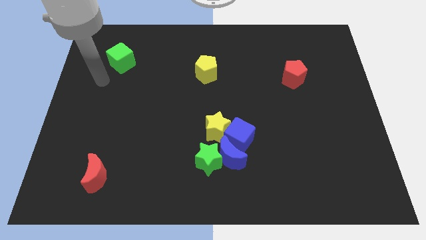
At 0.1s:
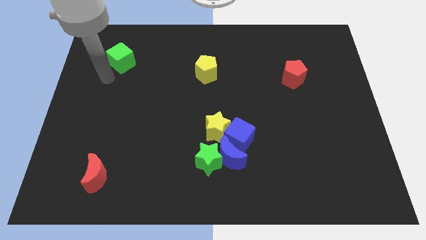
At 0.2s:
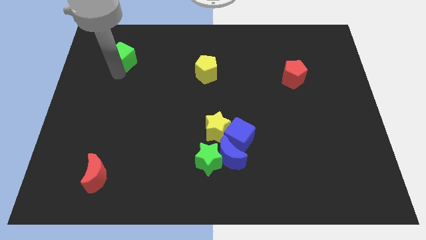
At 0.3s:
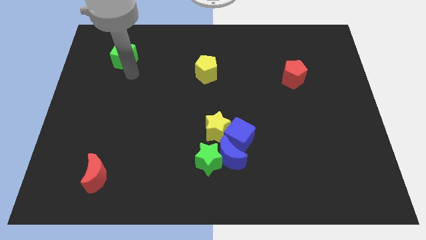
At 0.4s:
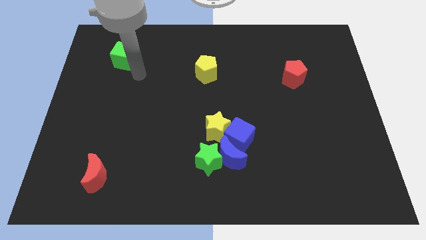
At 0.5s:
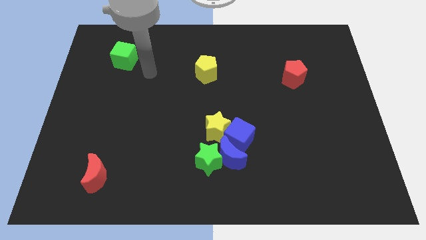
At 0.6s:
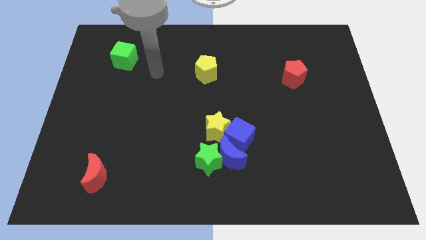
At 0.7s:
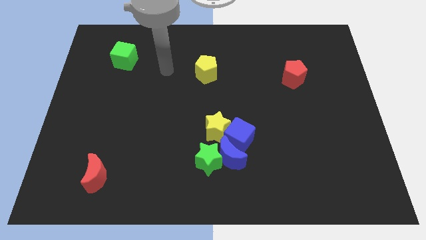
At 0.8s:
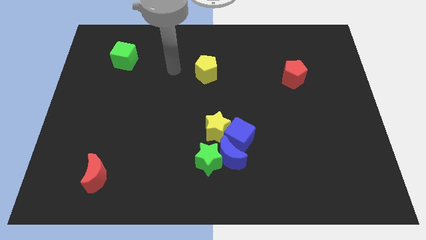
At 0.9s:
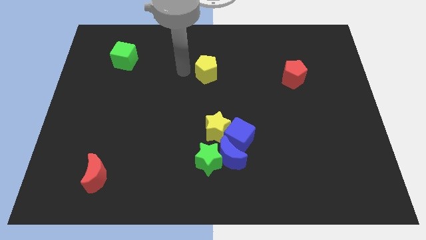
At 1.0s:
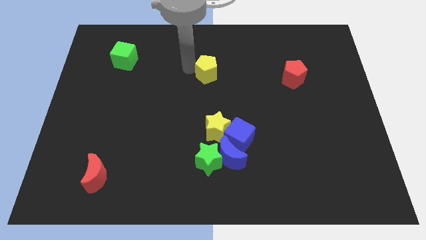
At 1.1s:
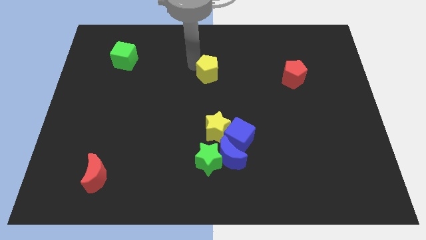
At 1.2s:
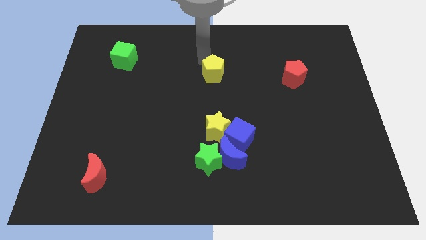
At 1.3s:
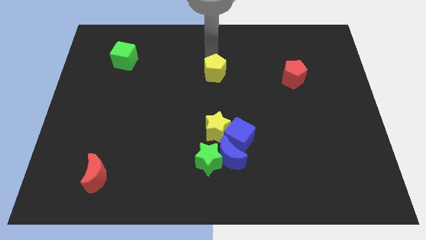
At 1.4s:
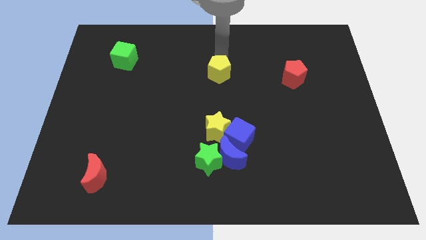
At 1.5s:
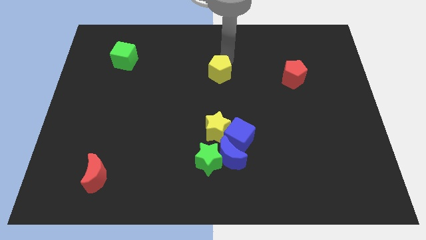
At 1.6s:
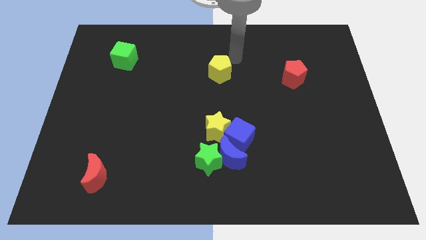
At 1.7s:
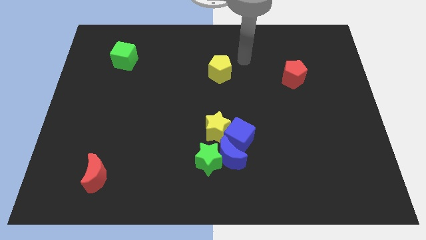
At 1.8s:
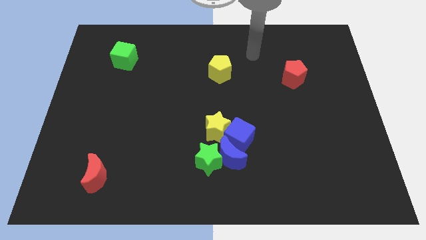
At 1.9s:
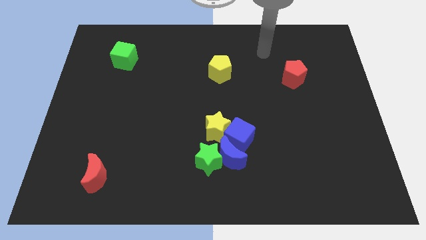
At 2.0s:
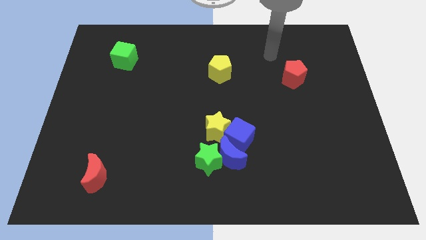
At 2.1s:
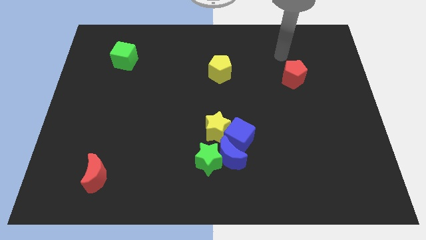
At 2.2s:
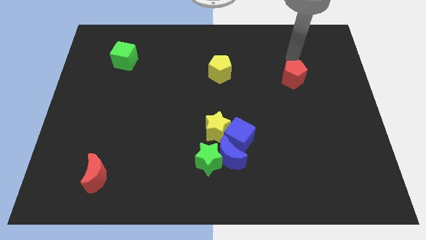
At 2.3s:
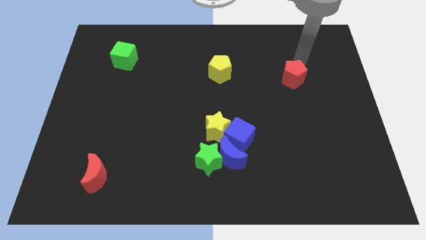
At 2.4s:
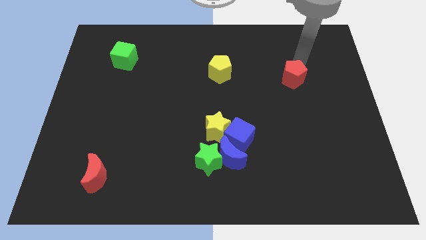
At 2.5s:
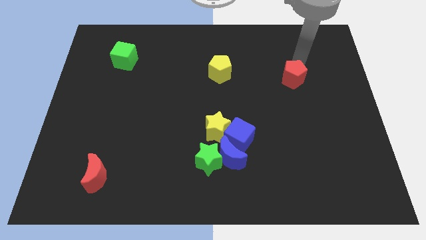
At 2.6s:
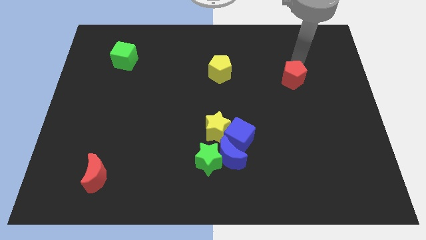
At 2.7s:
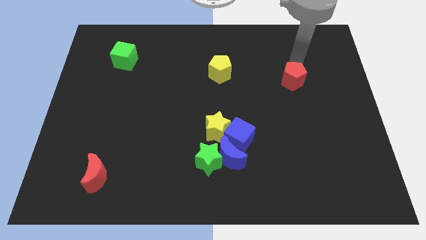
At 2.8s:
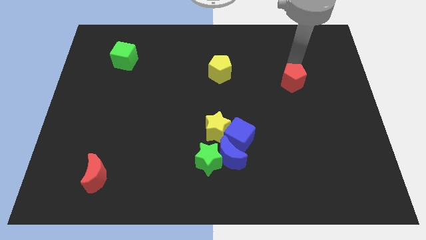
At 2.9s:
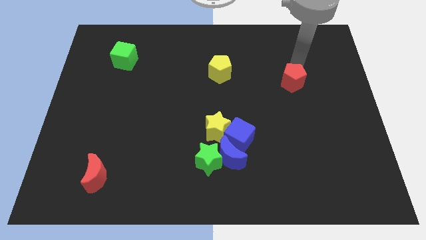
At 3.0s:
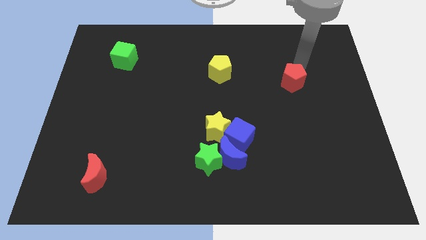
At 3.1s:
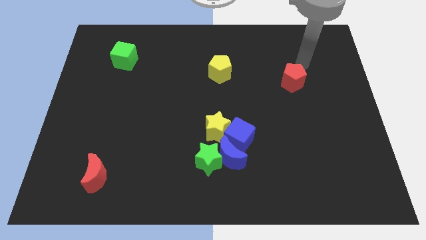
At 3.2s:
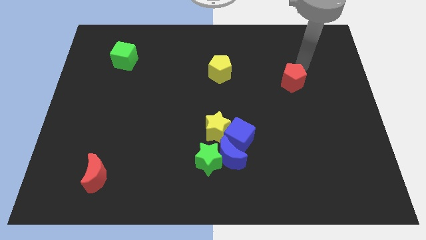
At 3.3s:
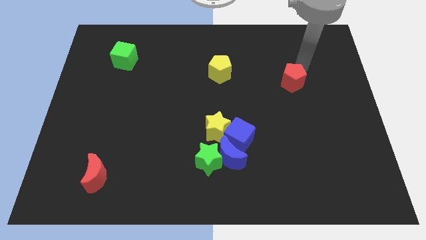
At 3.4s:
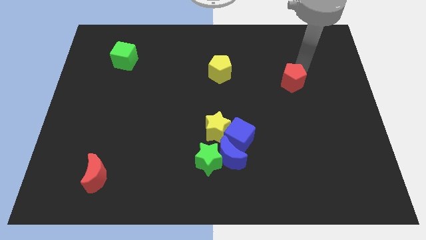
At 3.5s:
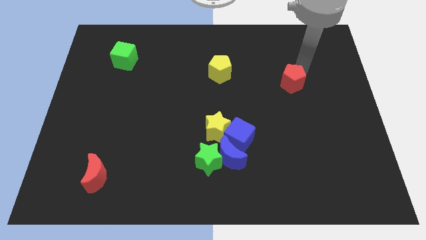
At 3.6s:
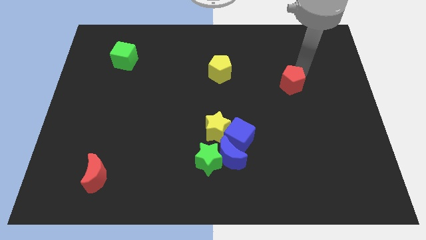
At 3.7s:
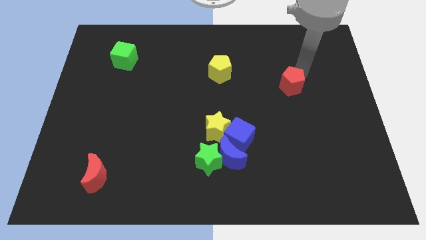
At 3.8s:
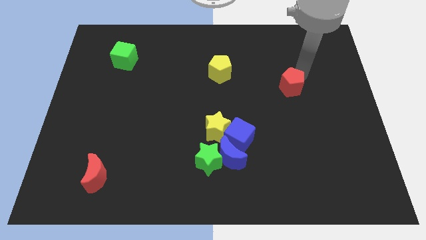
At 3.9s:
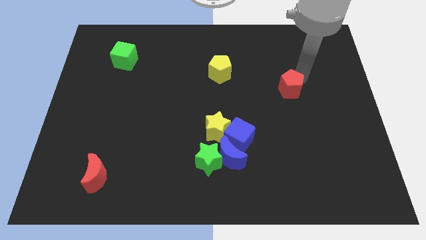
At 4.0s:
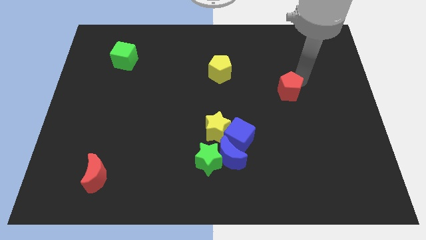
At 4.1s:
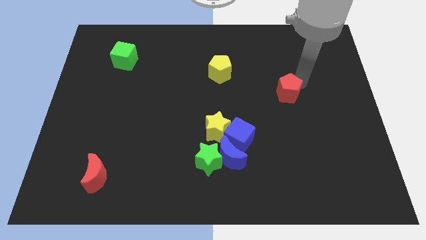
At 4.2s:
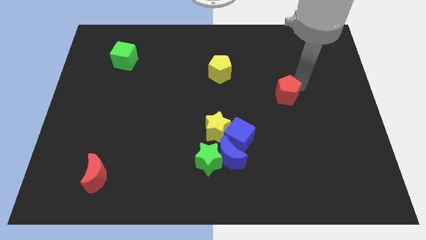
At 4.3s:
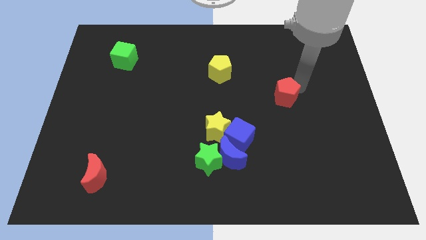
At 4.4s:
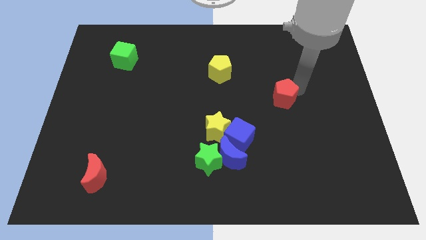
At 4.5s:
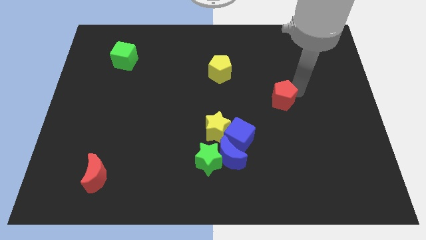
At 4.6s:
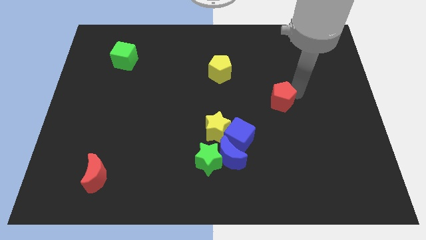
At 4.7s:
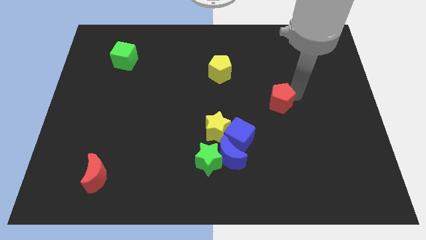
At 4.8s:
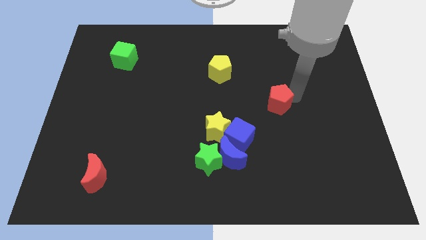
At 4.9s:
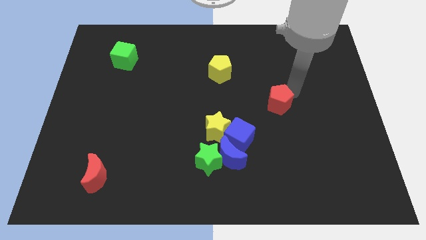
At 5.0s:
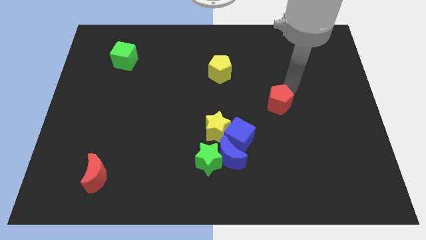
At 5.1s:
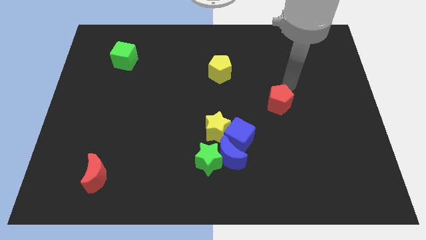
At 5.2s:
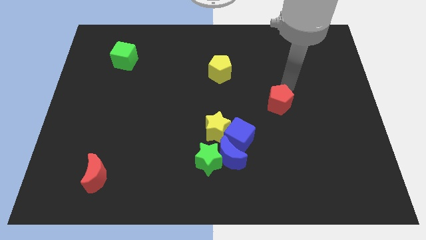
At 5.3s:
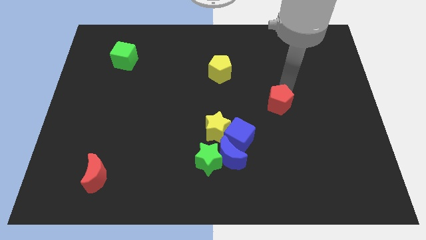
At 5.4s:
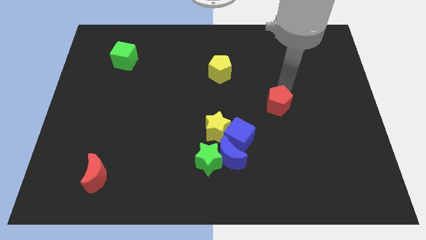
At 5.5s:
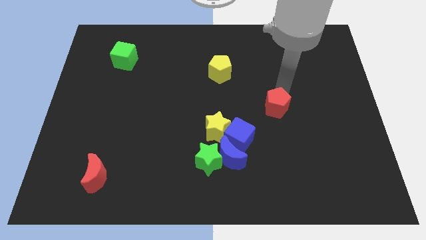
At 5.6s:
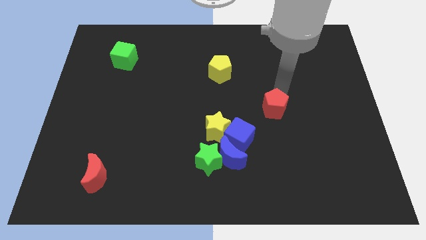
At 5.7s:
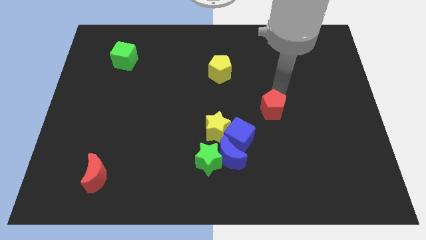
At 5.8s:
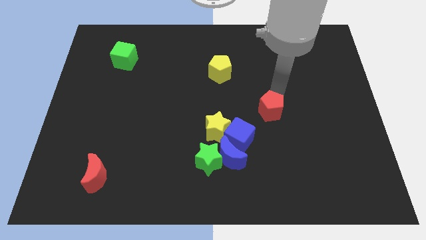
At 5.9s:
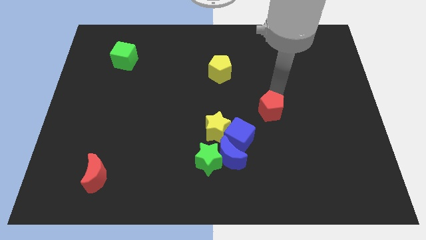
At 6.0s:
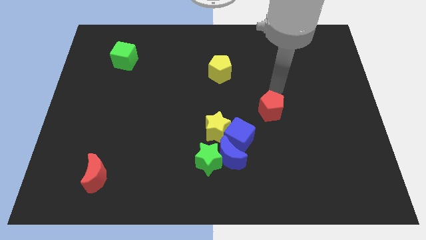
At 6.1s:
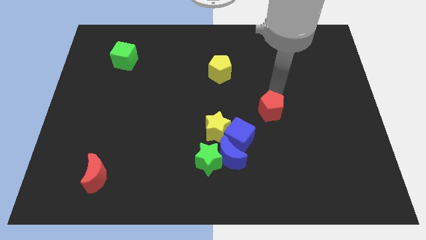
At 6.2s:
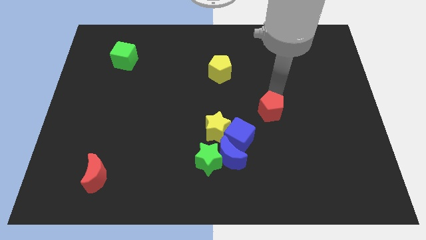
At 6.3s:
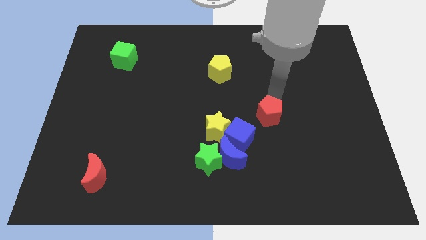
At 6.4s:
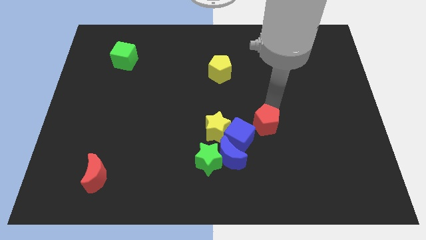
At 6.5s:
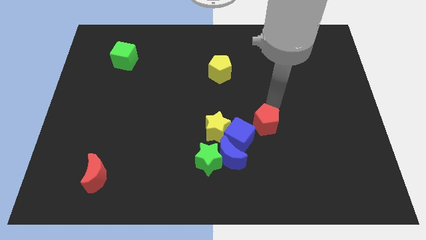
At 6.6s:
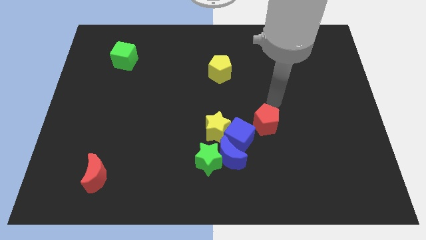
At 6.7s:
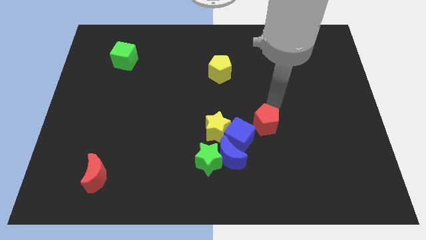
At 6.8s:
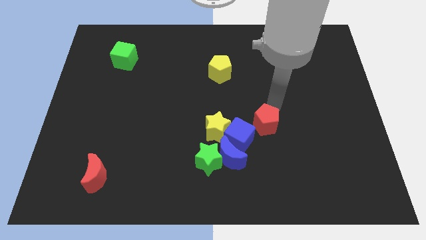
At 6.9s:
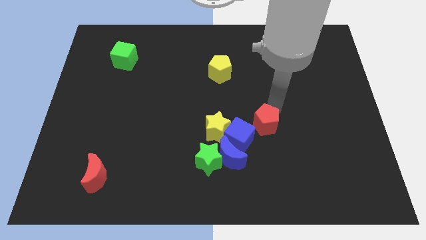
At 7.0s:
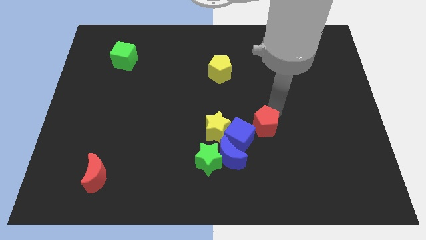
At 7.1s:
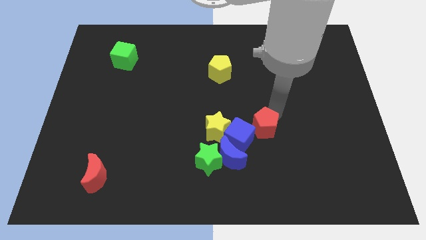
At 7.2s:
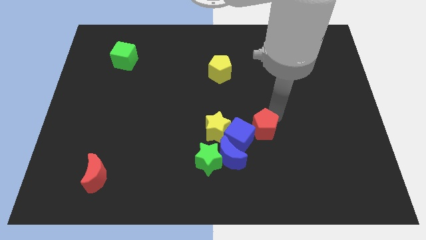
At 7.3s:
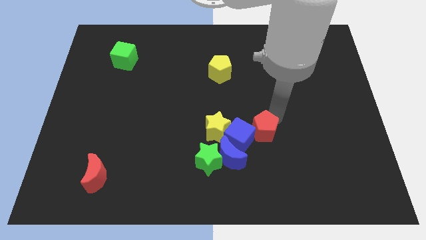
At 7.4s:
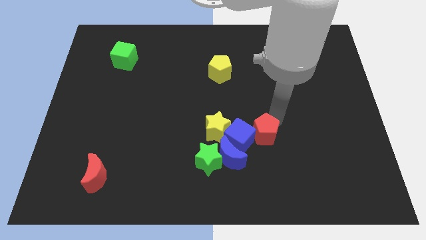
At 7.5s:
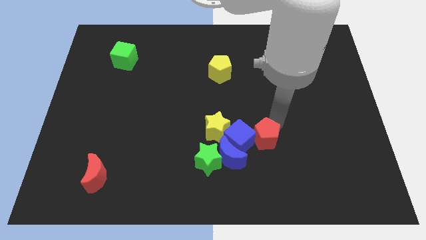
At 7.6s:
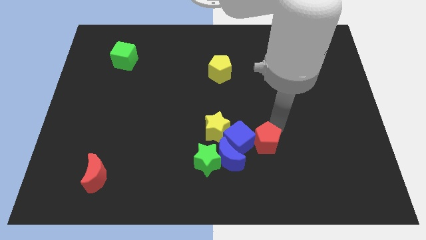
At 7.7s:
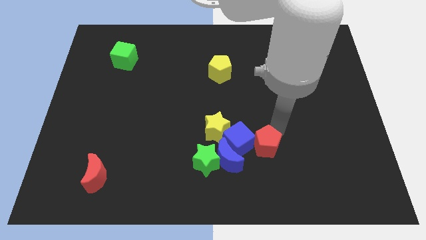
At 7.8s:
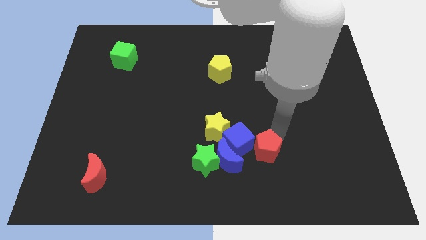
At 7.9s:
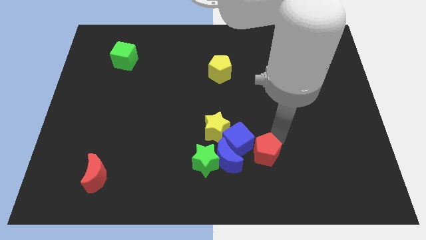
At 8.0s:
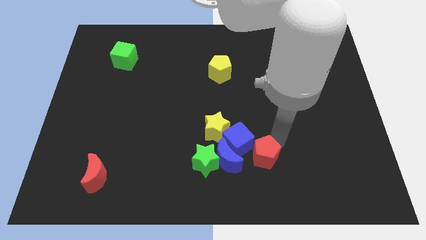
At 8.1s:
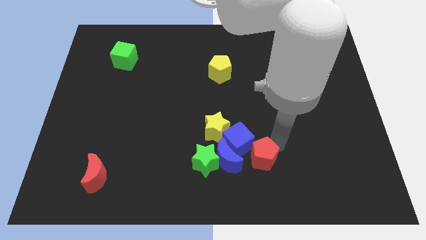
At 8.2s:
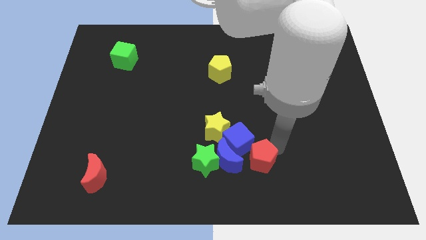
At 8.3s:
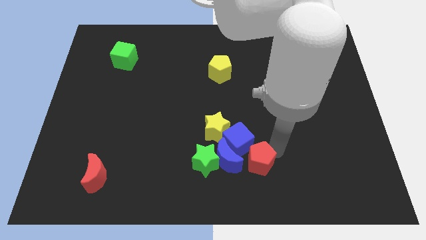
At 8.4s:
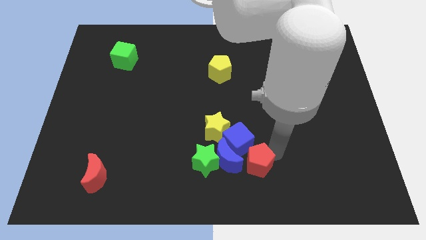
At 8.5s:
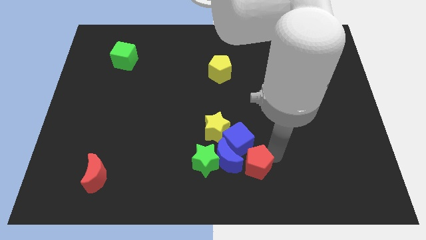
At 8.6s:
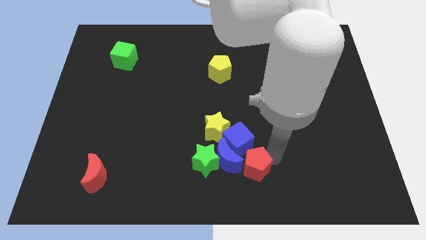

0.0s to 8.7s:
move the red pentagon to the bottom
